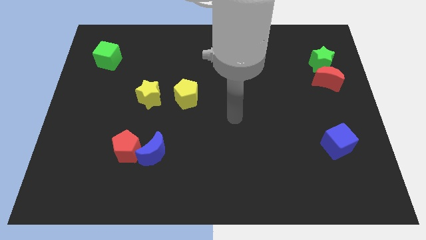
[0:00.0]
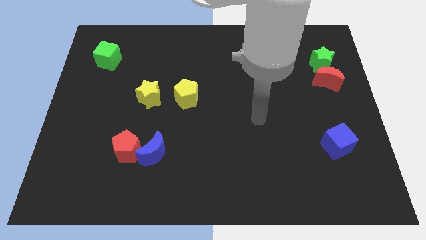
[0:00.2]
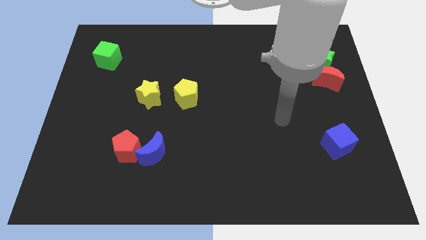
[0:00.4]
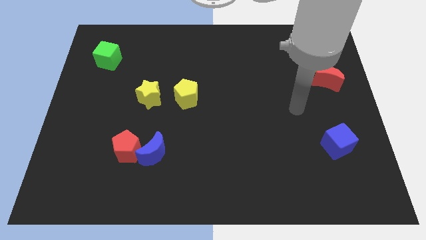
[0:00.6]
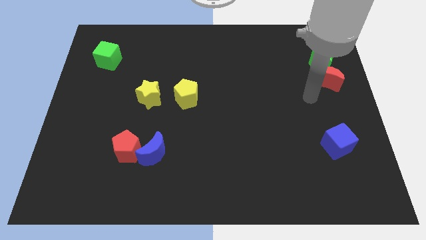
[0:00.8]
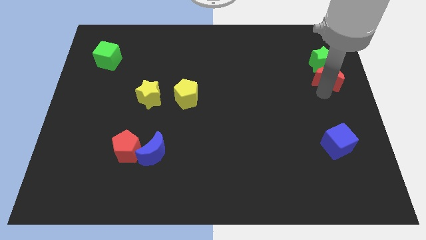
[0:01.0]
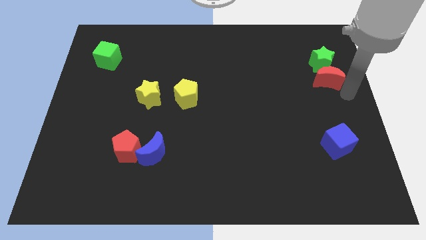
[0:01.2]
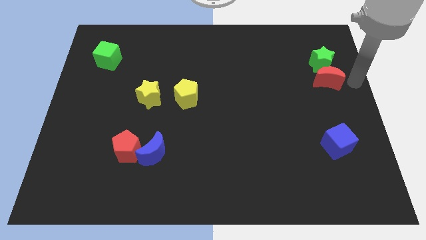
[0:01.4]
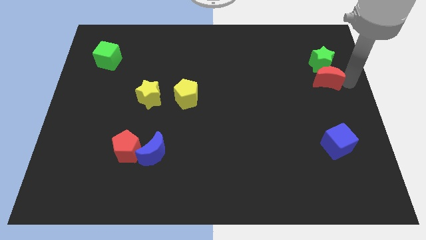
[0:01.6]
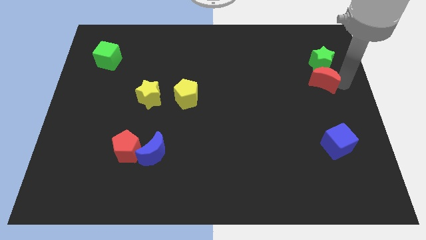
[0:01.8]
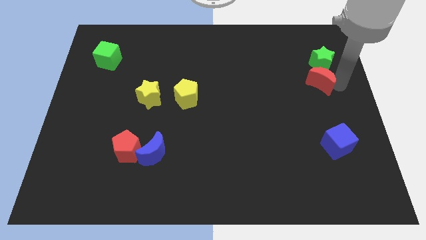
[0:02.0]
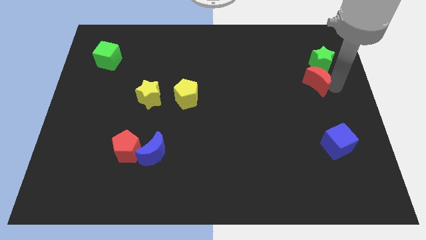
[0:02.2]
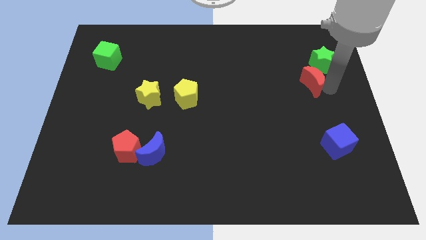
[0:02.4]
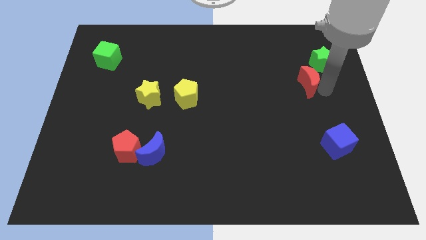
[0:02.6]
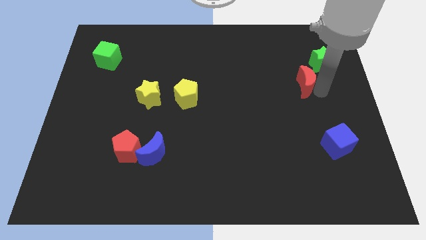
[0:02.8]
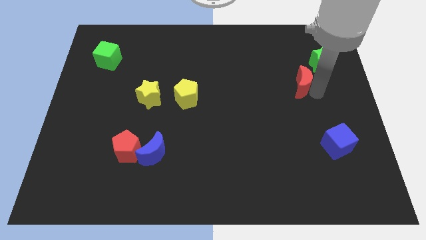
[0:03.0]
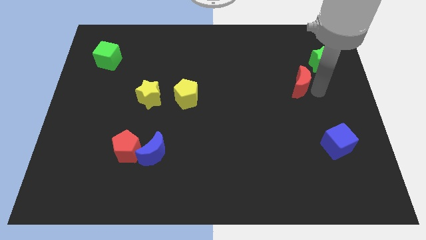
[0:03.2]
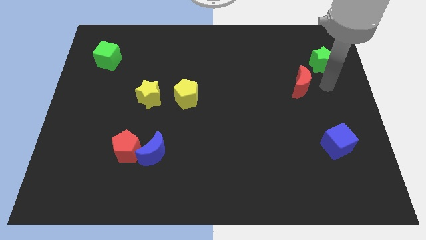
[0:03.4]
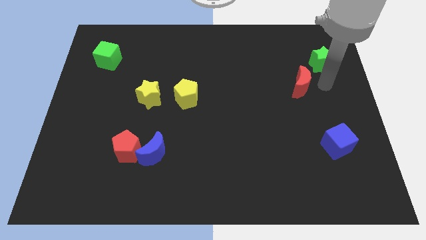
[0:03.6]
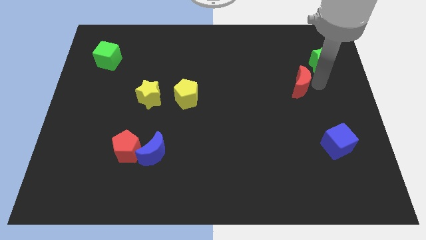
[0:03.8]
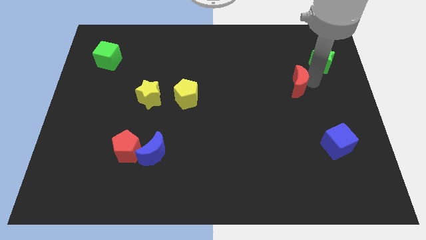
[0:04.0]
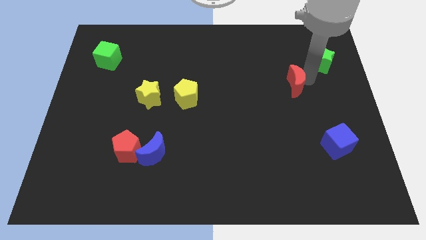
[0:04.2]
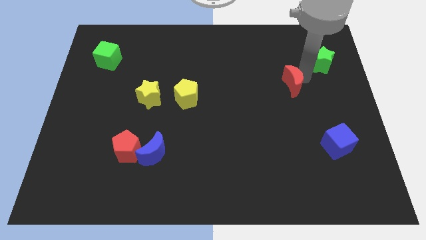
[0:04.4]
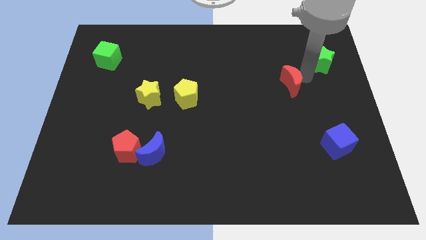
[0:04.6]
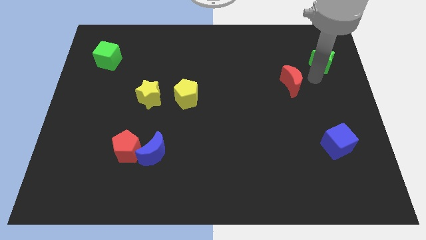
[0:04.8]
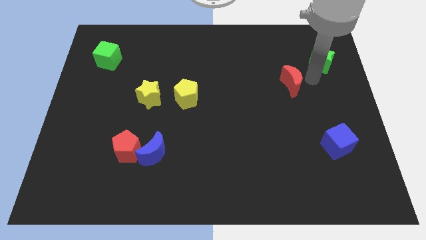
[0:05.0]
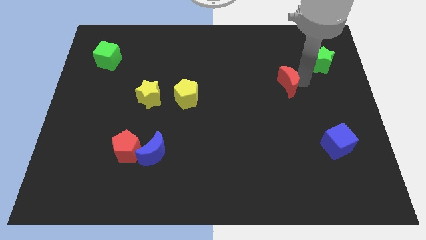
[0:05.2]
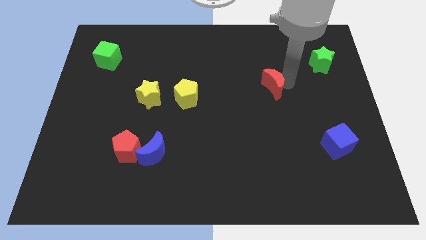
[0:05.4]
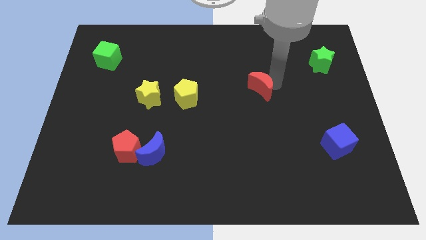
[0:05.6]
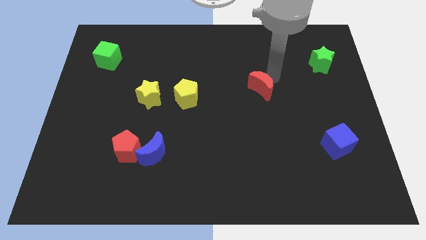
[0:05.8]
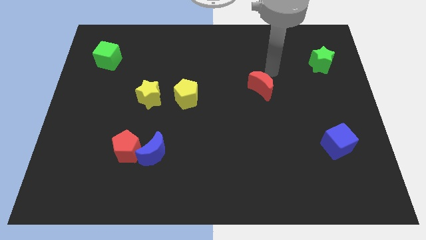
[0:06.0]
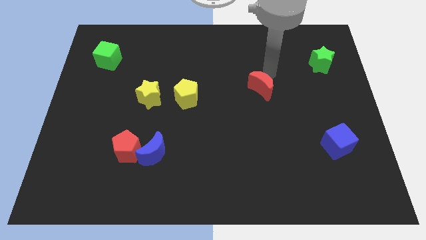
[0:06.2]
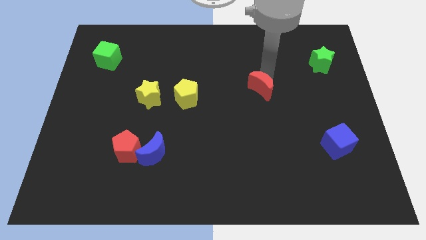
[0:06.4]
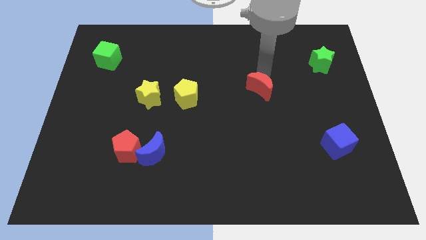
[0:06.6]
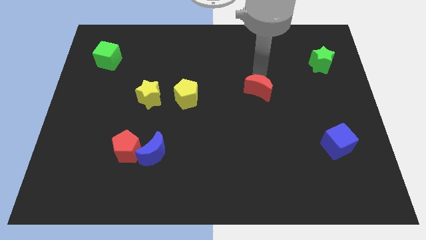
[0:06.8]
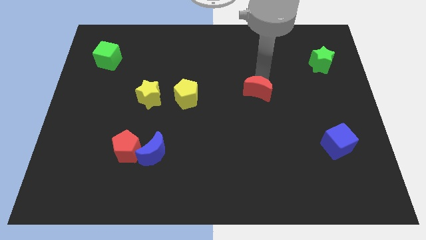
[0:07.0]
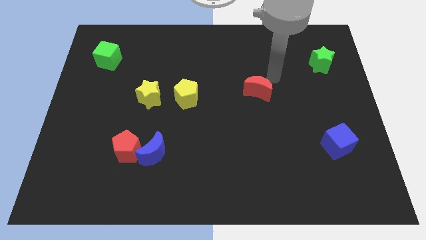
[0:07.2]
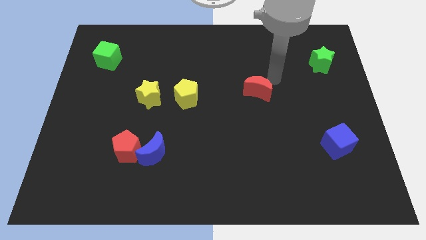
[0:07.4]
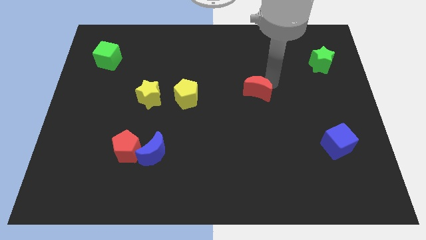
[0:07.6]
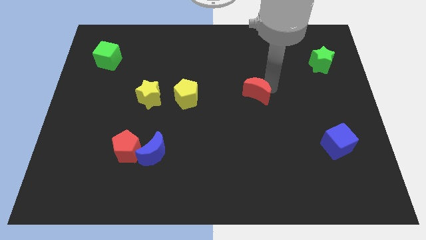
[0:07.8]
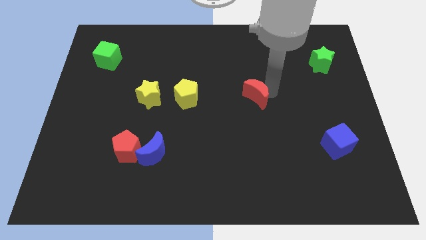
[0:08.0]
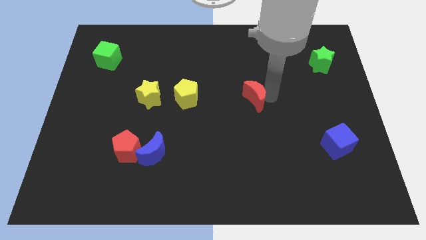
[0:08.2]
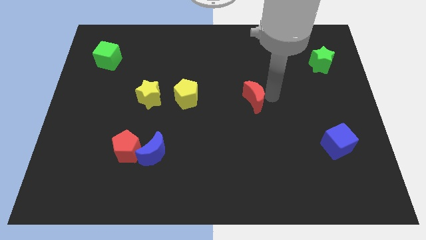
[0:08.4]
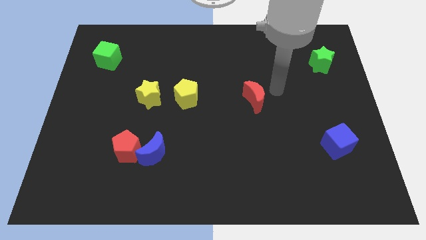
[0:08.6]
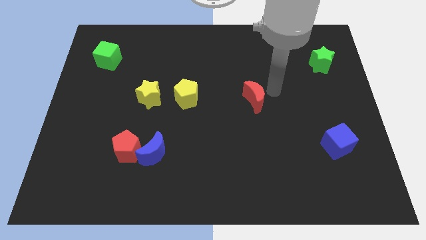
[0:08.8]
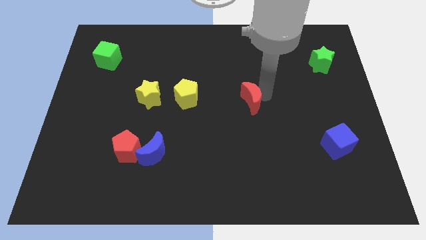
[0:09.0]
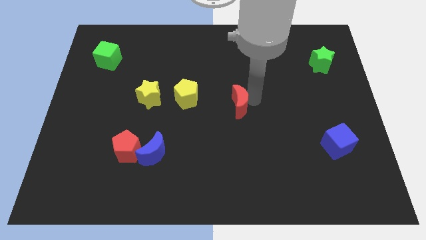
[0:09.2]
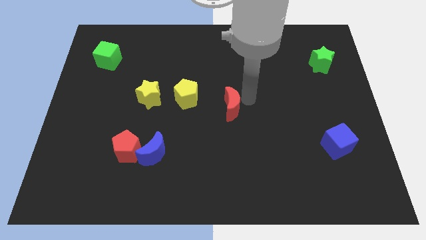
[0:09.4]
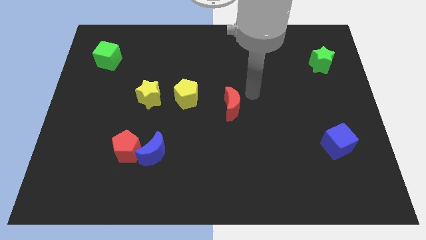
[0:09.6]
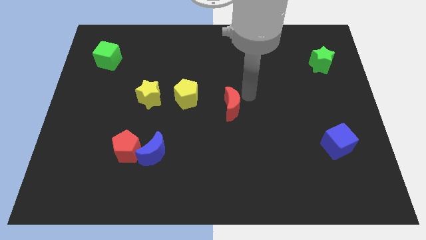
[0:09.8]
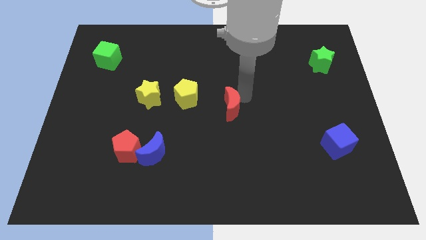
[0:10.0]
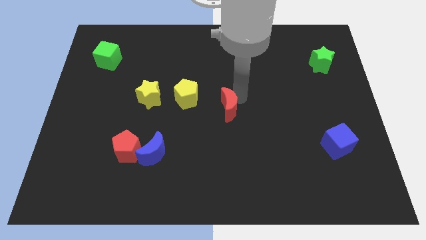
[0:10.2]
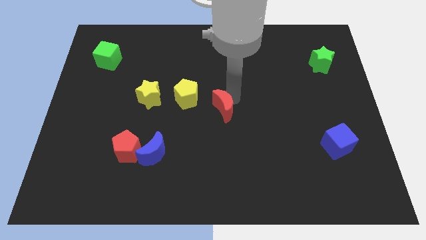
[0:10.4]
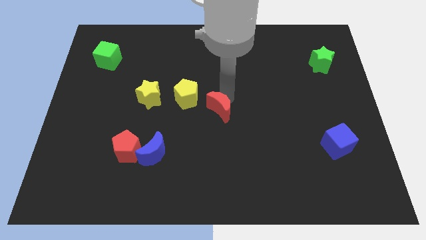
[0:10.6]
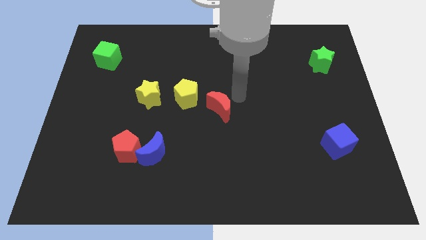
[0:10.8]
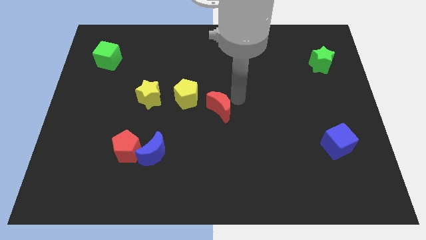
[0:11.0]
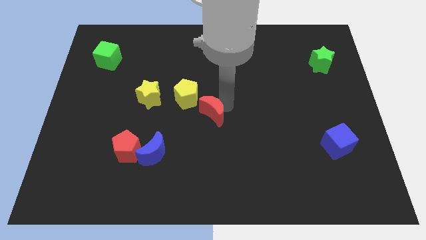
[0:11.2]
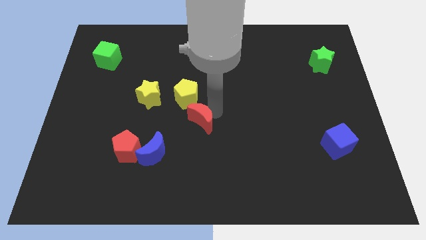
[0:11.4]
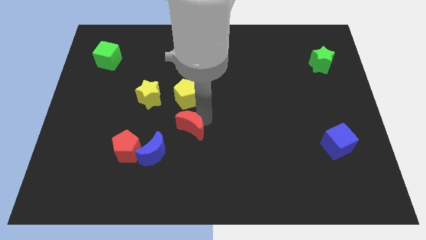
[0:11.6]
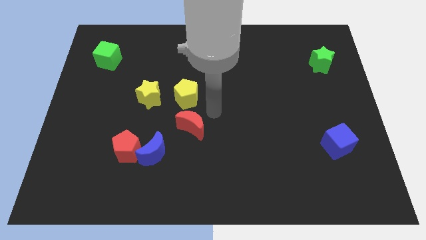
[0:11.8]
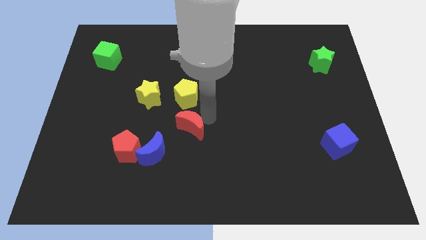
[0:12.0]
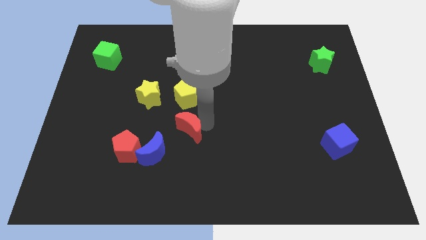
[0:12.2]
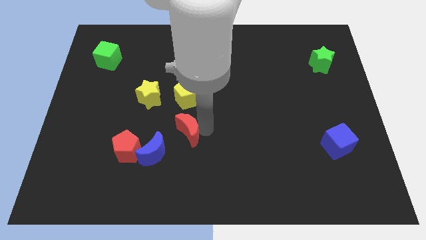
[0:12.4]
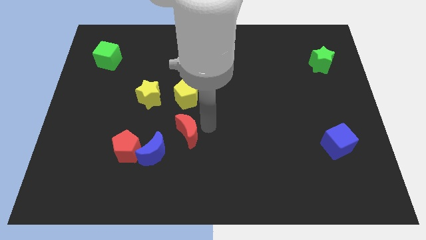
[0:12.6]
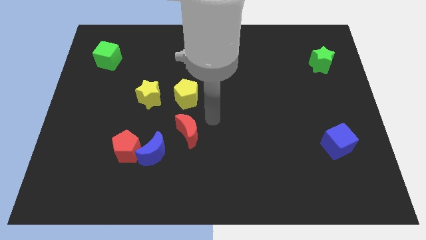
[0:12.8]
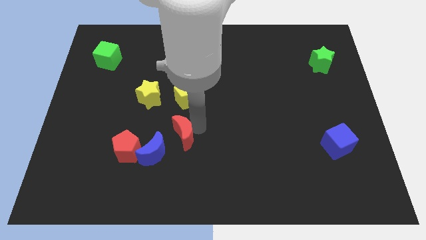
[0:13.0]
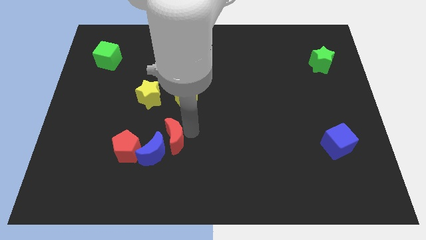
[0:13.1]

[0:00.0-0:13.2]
move the red moon to the blue moon

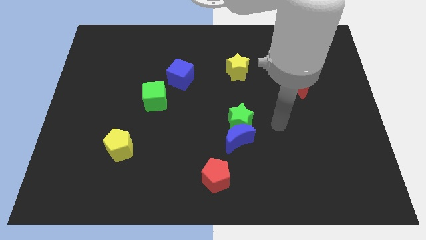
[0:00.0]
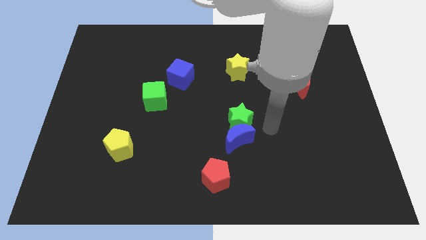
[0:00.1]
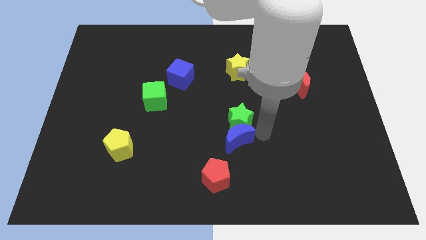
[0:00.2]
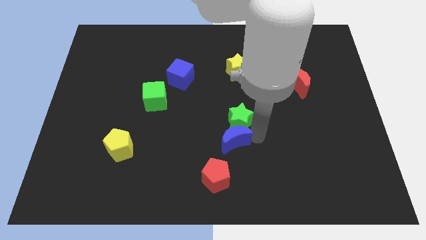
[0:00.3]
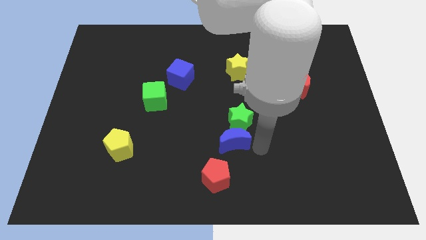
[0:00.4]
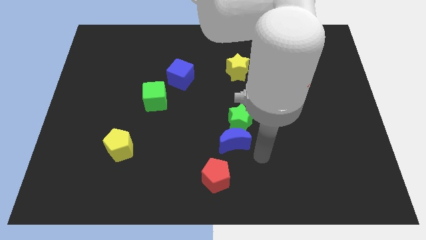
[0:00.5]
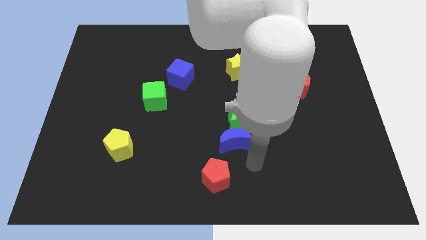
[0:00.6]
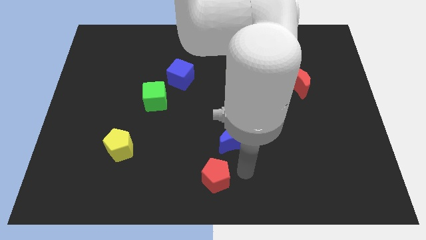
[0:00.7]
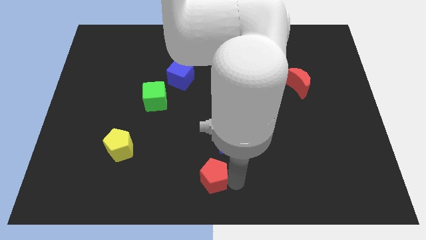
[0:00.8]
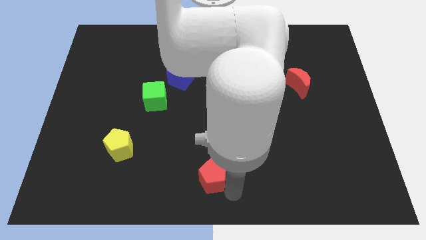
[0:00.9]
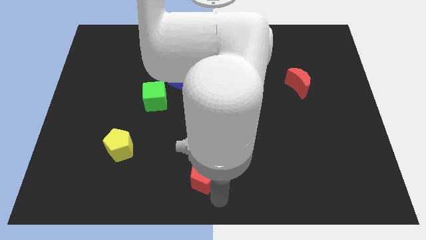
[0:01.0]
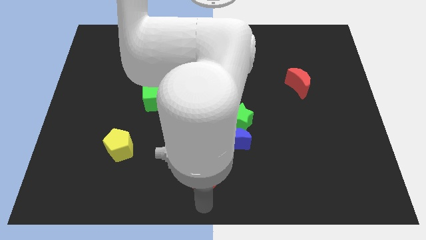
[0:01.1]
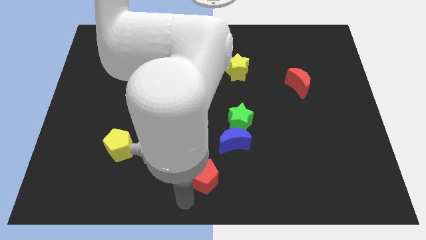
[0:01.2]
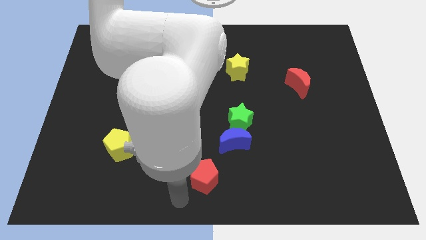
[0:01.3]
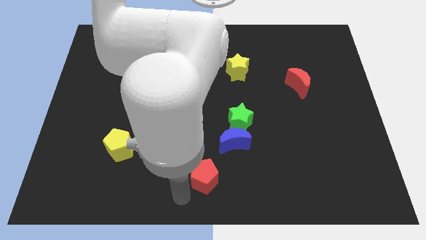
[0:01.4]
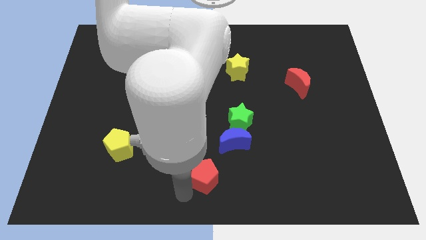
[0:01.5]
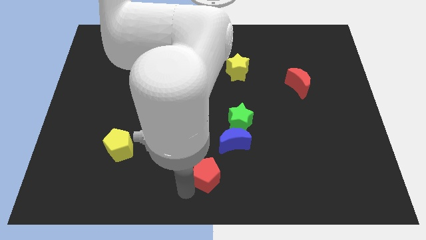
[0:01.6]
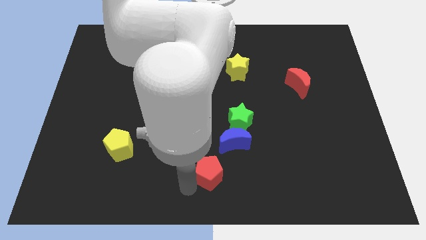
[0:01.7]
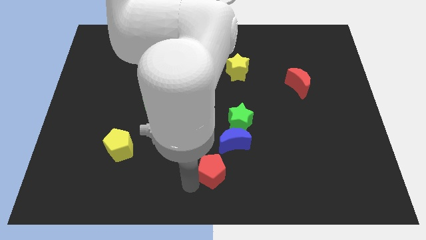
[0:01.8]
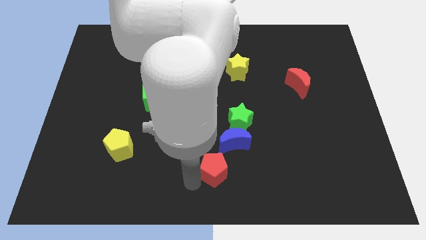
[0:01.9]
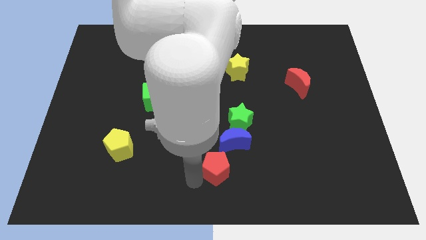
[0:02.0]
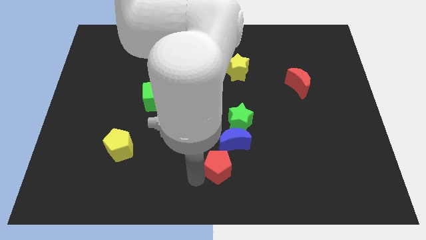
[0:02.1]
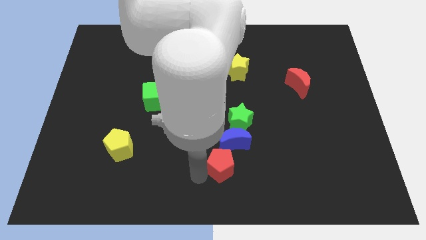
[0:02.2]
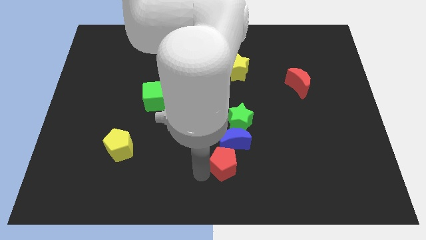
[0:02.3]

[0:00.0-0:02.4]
move the red pentagon next to the blue moon
